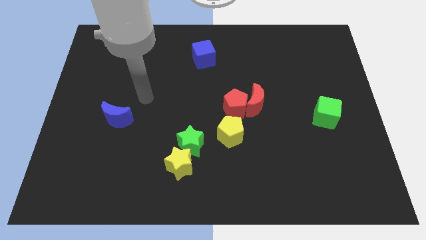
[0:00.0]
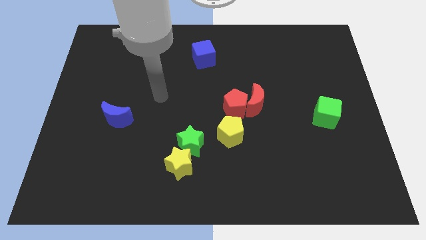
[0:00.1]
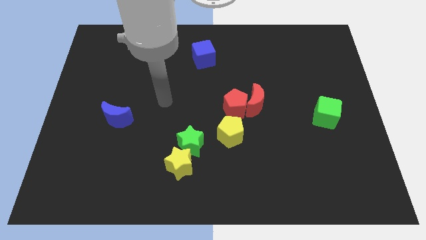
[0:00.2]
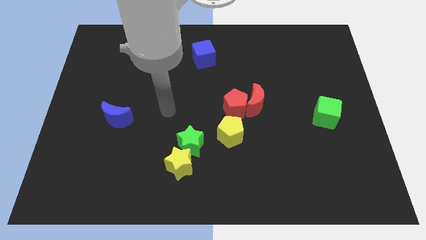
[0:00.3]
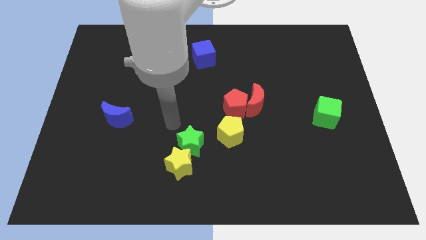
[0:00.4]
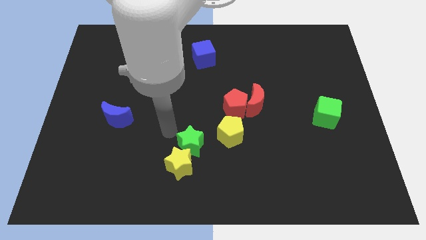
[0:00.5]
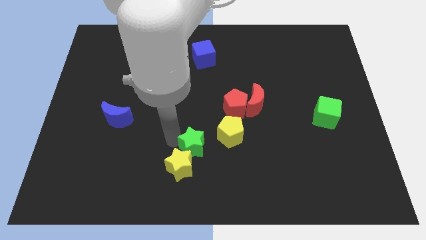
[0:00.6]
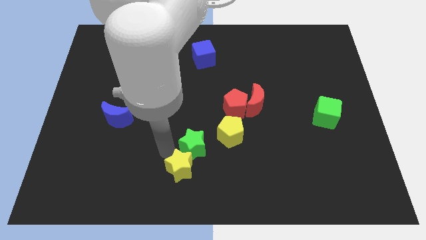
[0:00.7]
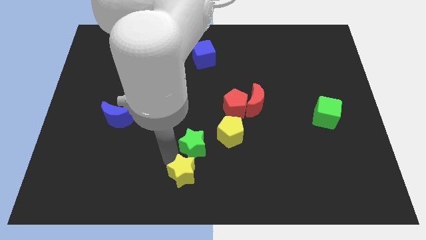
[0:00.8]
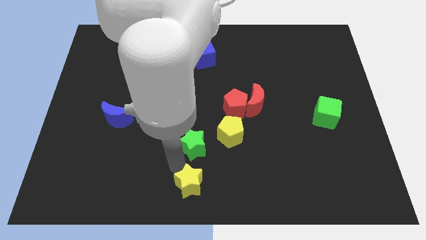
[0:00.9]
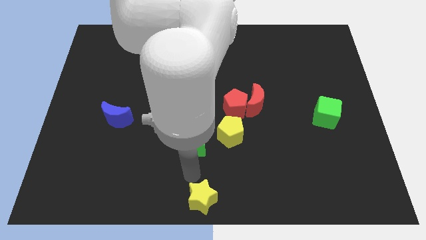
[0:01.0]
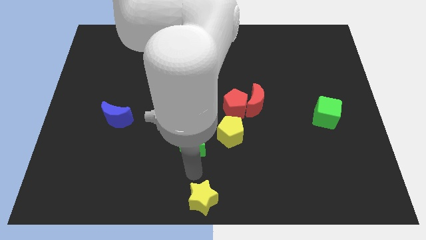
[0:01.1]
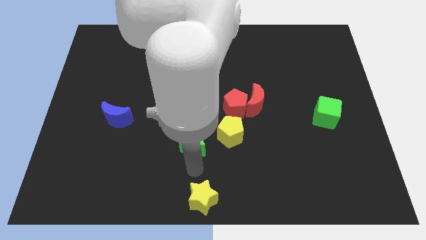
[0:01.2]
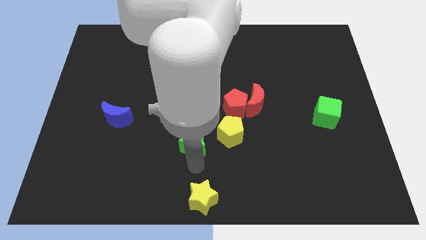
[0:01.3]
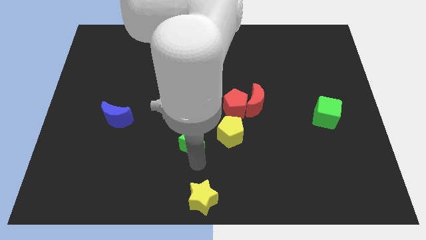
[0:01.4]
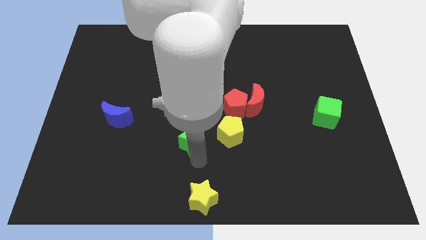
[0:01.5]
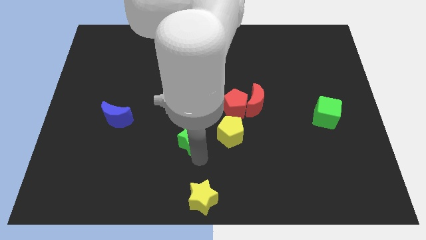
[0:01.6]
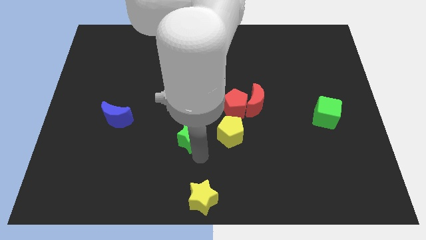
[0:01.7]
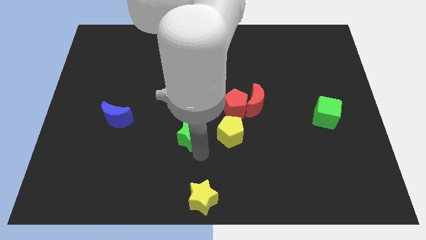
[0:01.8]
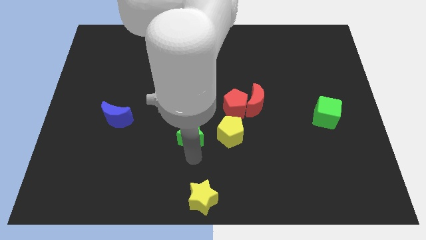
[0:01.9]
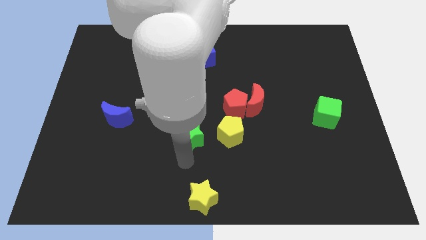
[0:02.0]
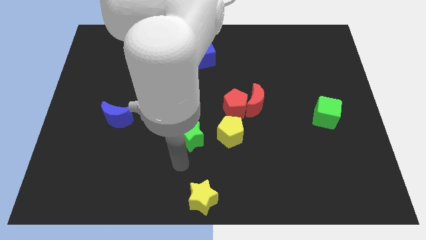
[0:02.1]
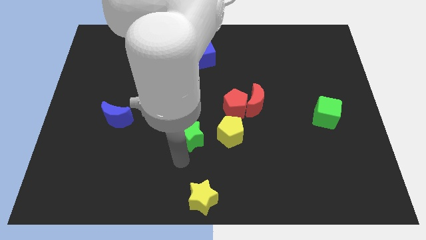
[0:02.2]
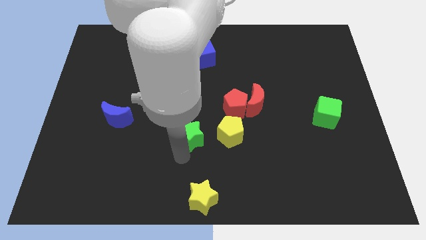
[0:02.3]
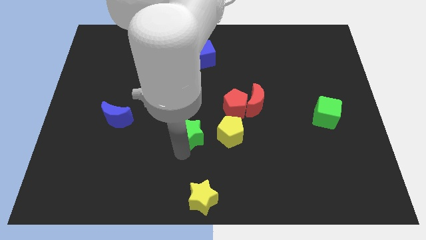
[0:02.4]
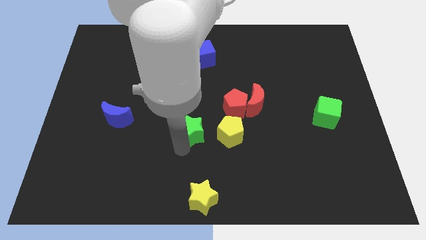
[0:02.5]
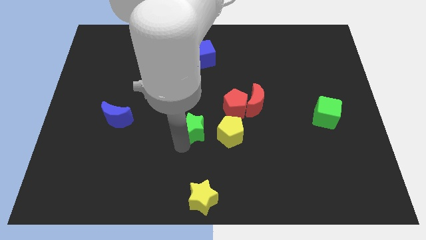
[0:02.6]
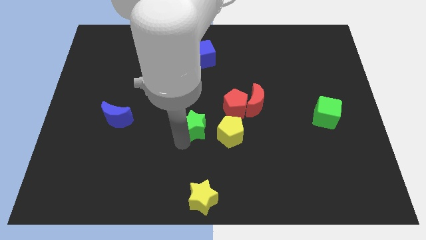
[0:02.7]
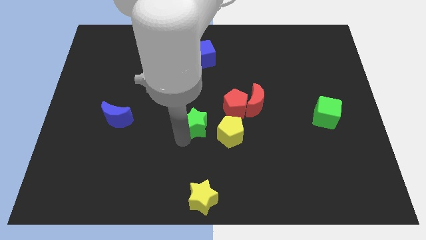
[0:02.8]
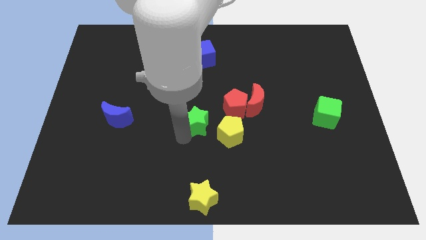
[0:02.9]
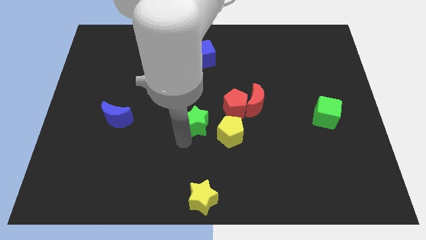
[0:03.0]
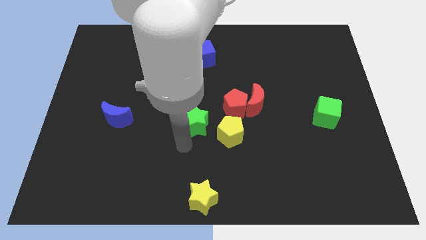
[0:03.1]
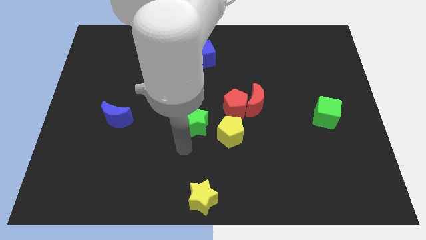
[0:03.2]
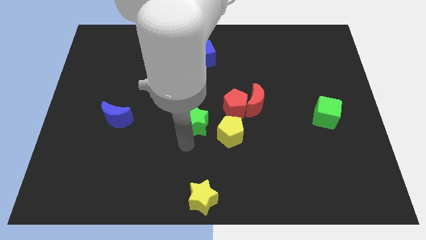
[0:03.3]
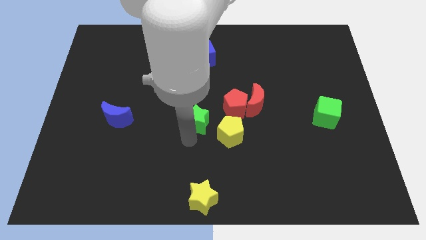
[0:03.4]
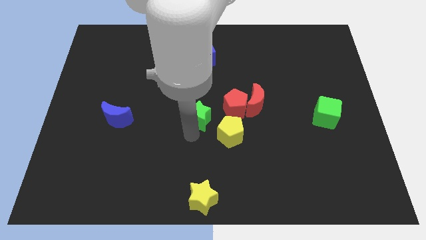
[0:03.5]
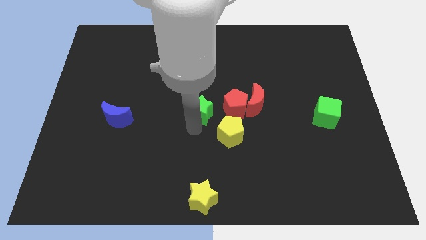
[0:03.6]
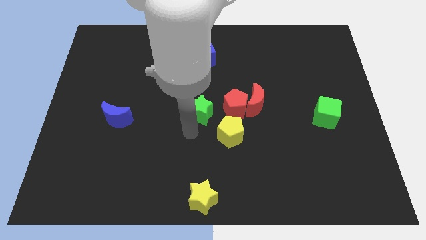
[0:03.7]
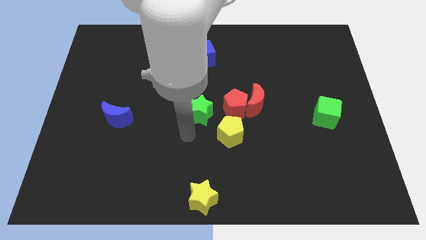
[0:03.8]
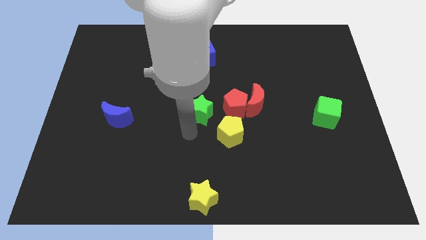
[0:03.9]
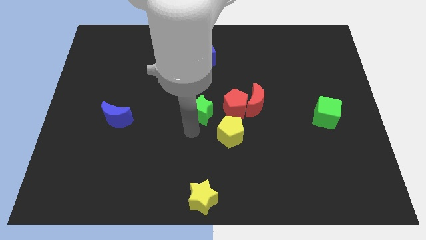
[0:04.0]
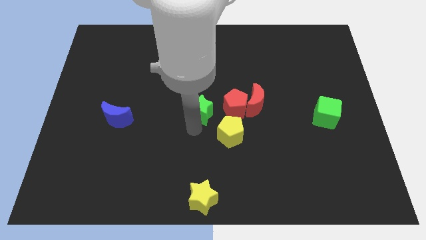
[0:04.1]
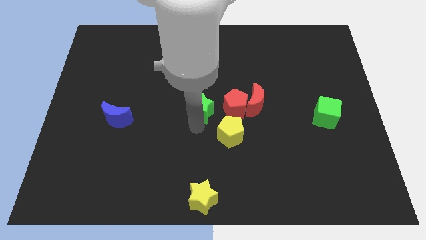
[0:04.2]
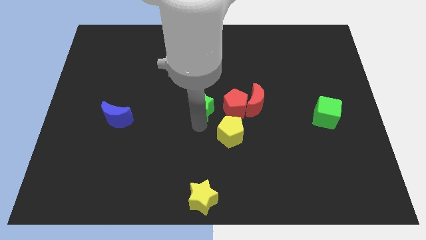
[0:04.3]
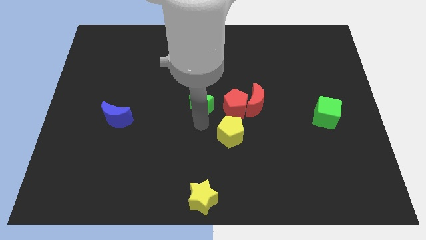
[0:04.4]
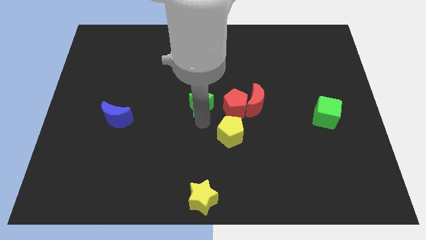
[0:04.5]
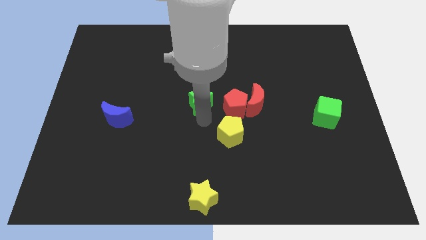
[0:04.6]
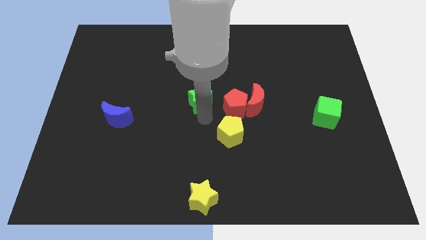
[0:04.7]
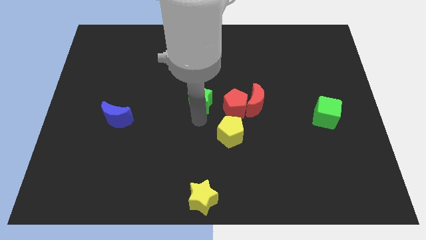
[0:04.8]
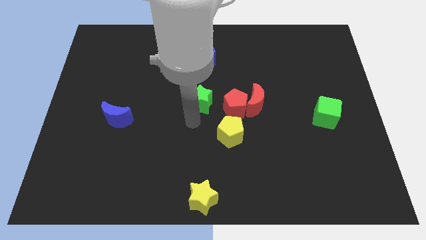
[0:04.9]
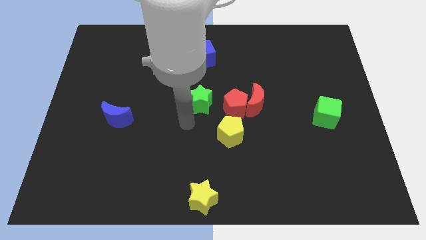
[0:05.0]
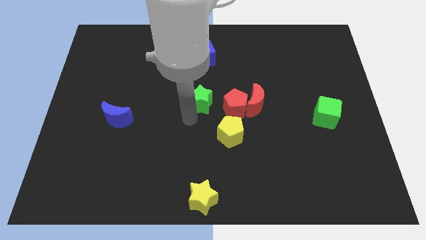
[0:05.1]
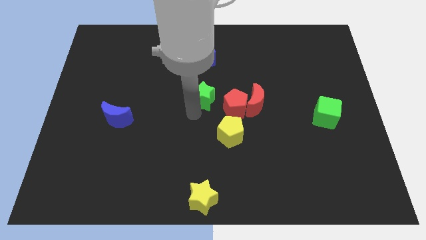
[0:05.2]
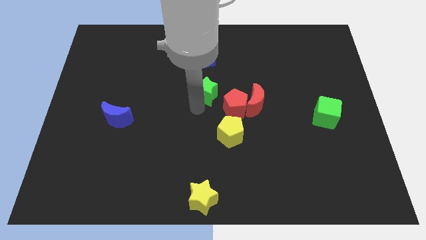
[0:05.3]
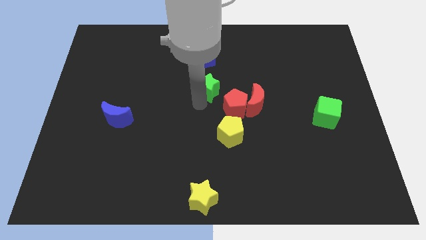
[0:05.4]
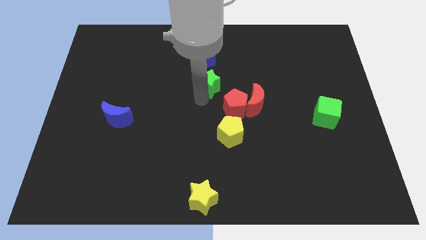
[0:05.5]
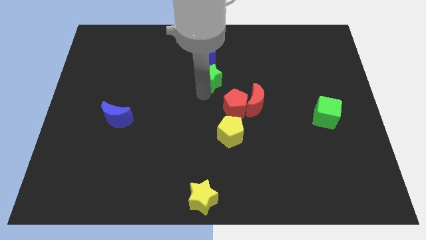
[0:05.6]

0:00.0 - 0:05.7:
slide the green star to the bottom right of the blue cube

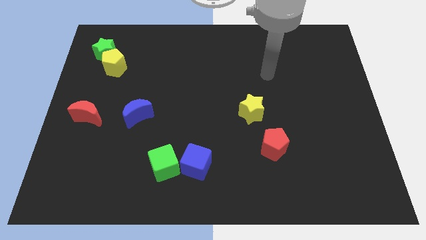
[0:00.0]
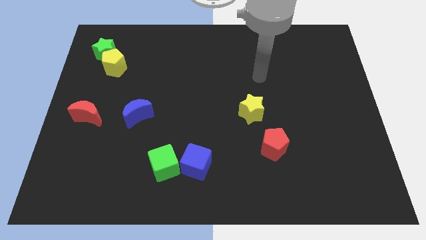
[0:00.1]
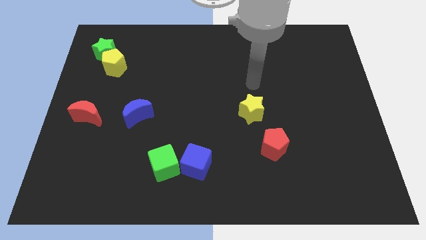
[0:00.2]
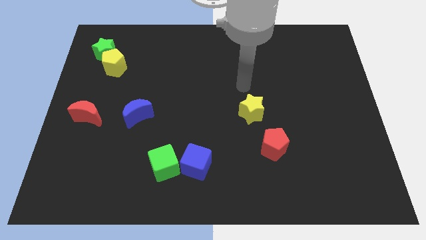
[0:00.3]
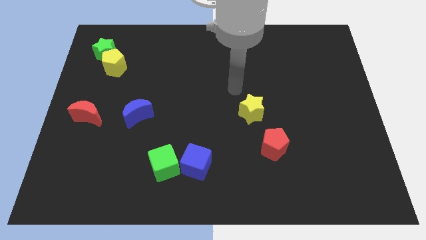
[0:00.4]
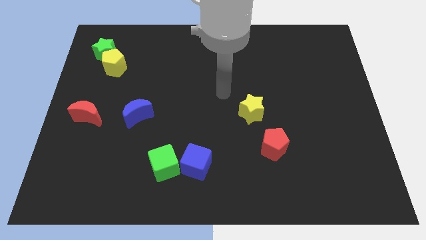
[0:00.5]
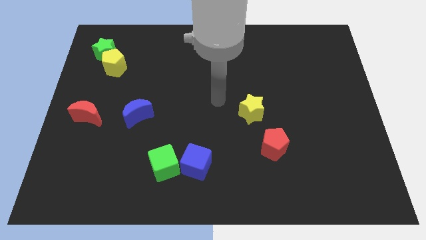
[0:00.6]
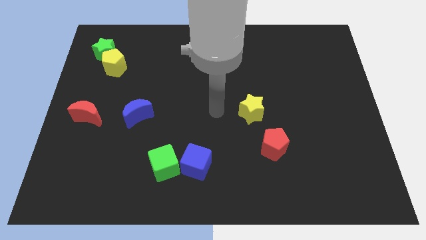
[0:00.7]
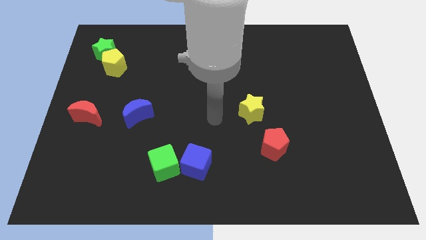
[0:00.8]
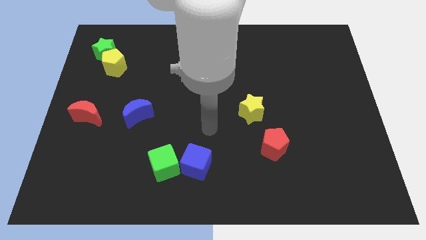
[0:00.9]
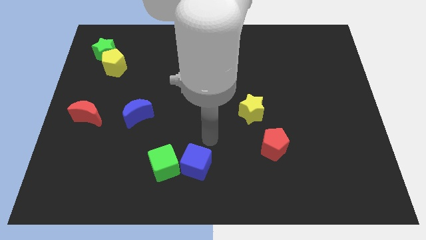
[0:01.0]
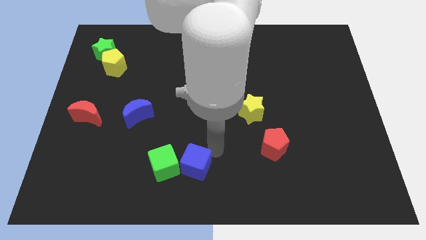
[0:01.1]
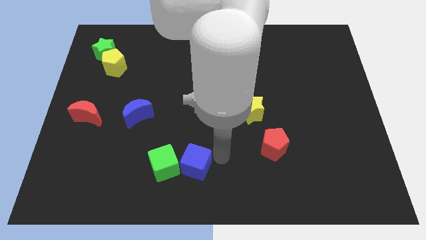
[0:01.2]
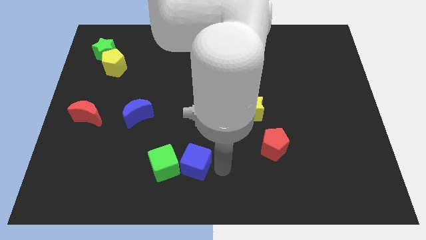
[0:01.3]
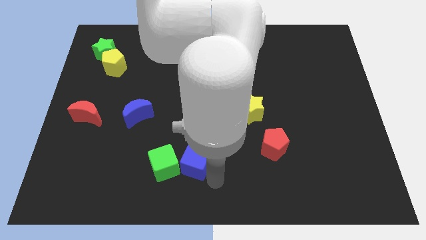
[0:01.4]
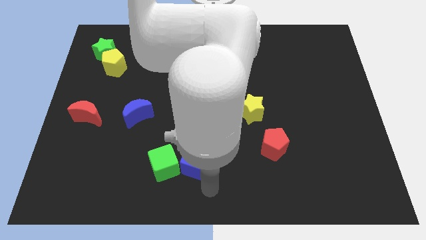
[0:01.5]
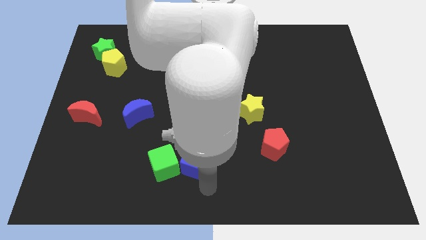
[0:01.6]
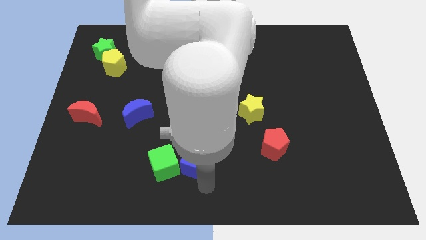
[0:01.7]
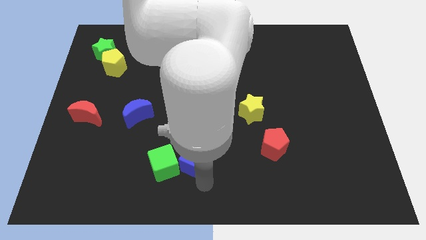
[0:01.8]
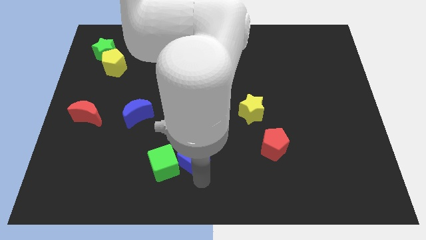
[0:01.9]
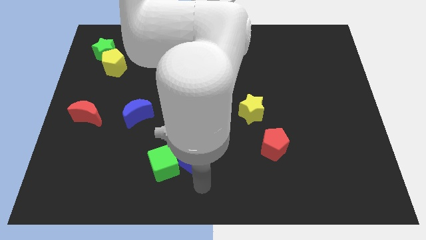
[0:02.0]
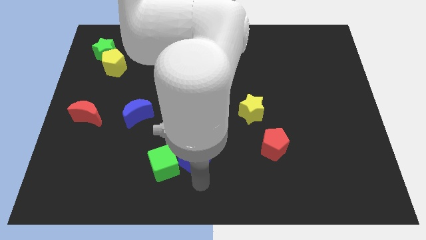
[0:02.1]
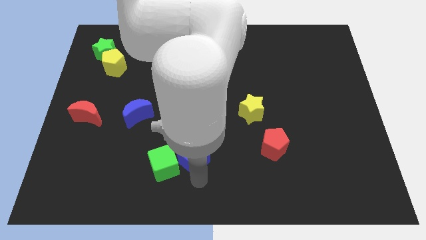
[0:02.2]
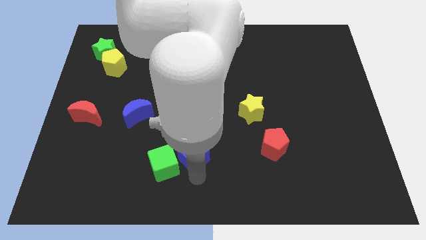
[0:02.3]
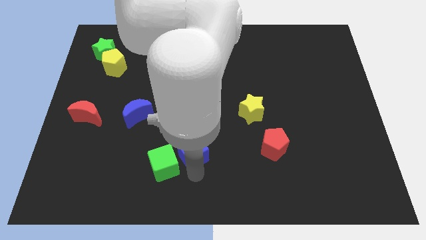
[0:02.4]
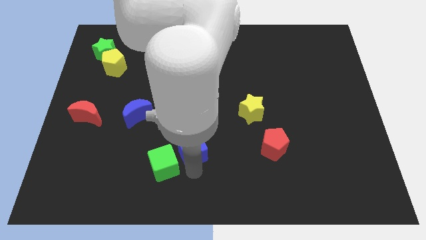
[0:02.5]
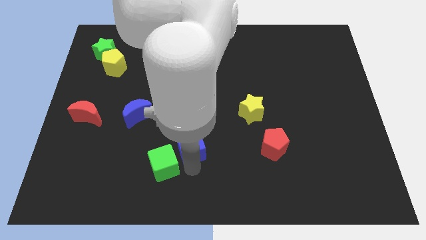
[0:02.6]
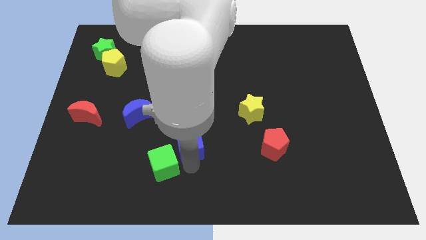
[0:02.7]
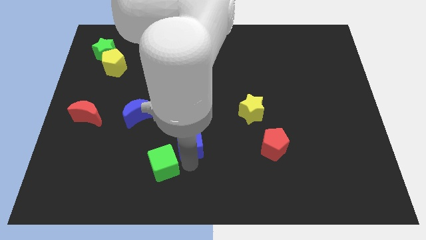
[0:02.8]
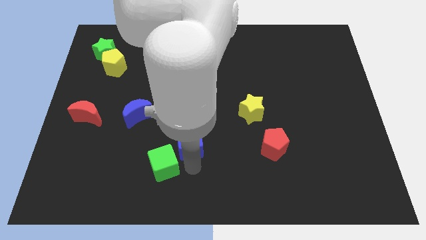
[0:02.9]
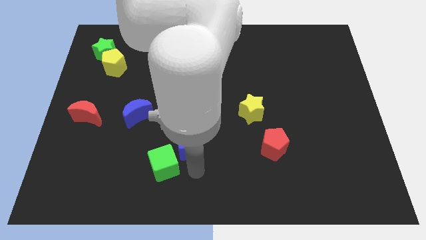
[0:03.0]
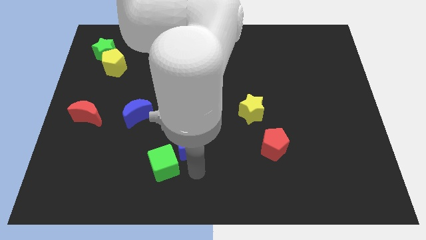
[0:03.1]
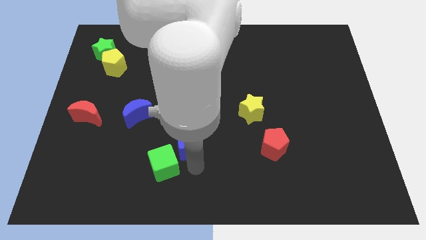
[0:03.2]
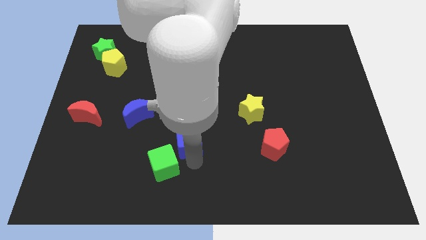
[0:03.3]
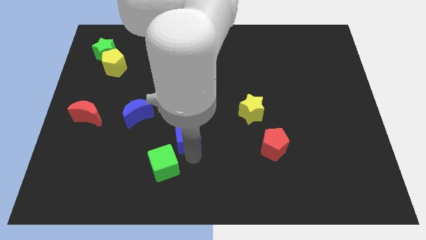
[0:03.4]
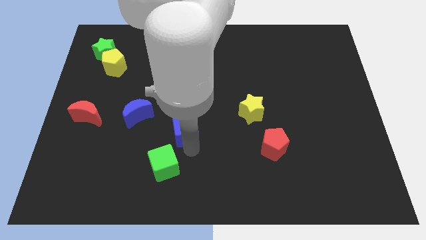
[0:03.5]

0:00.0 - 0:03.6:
slide the blue cube to the right side of the blue moon
